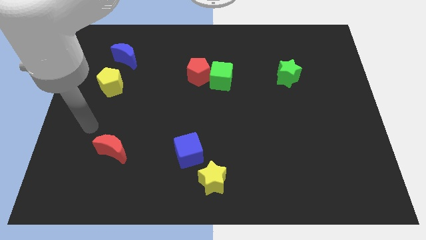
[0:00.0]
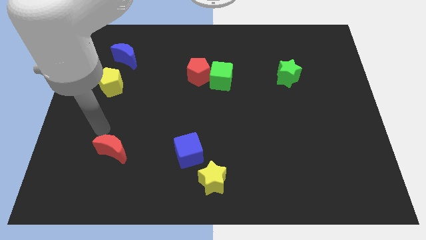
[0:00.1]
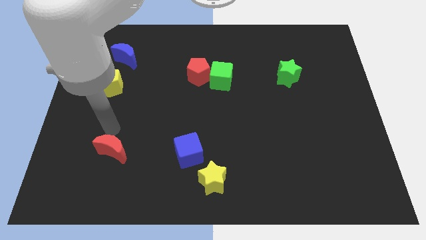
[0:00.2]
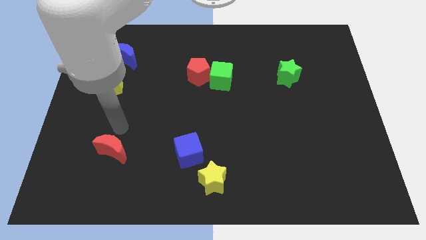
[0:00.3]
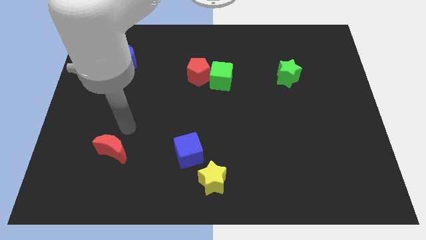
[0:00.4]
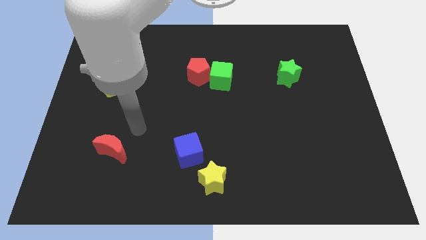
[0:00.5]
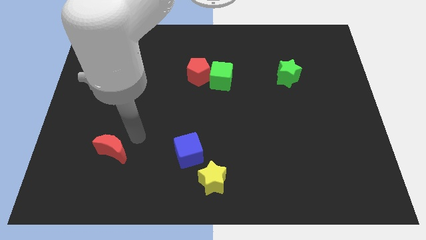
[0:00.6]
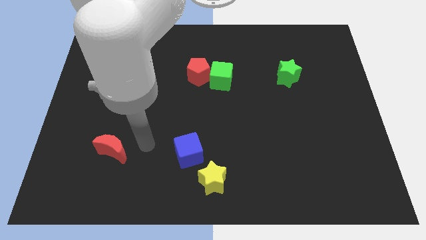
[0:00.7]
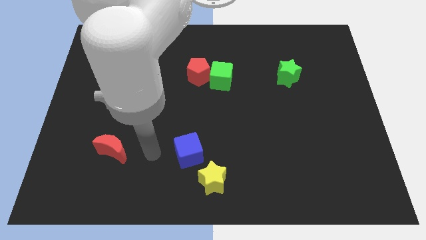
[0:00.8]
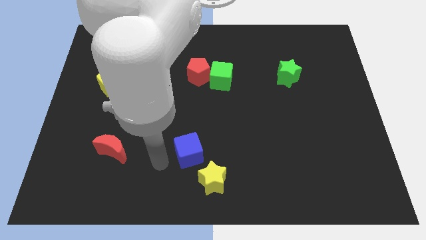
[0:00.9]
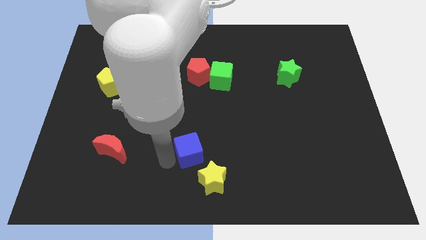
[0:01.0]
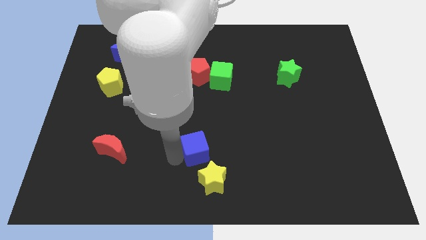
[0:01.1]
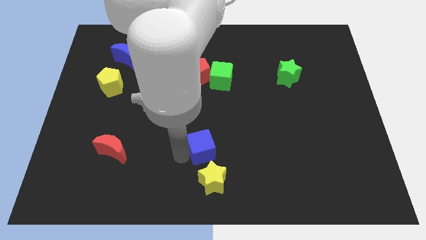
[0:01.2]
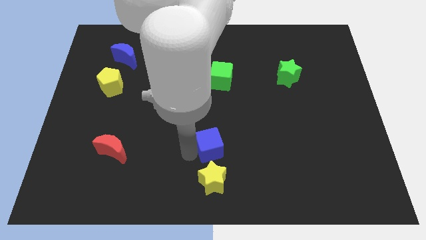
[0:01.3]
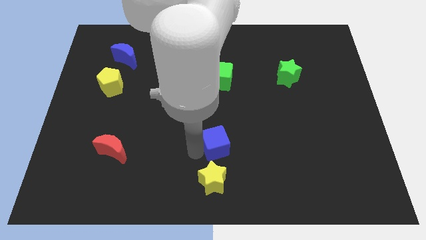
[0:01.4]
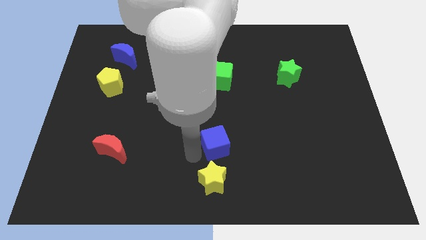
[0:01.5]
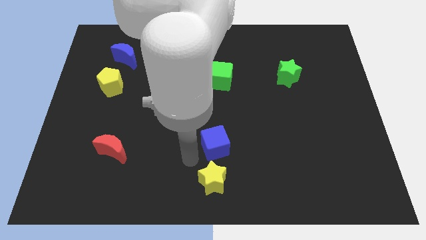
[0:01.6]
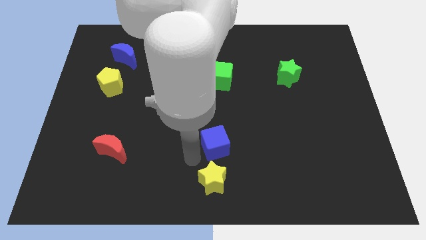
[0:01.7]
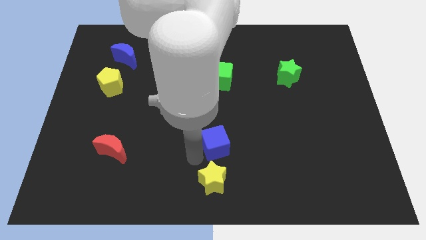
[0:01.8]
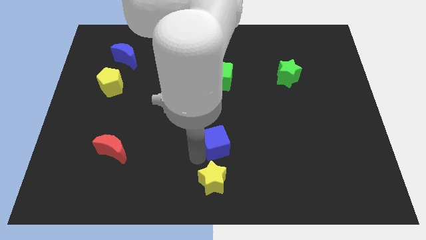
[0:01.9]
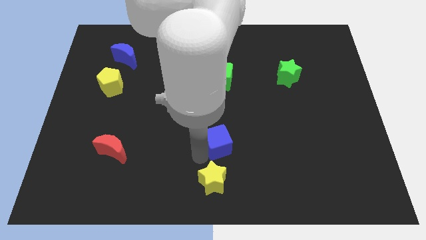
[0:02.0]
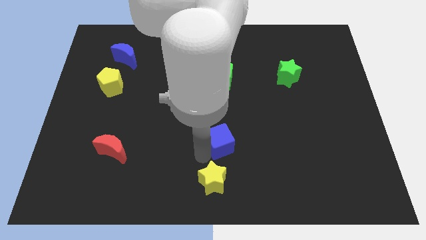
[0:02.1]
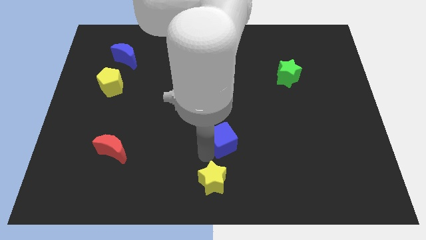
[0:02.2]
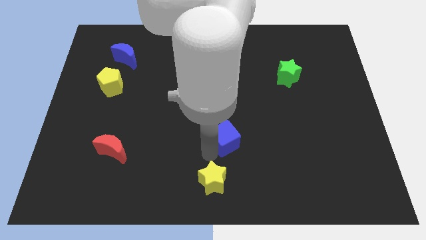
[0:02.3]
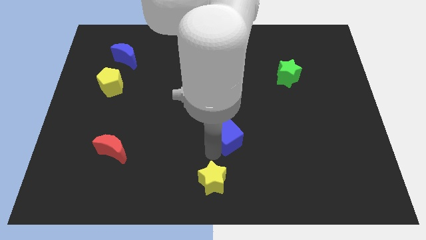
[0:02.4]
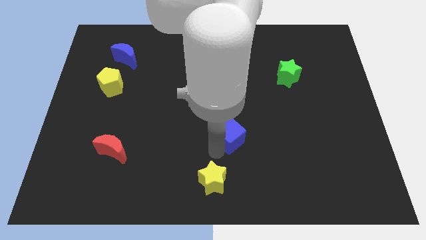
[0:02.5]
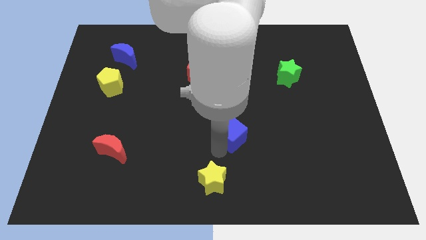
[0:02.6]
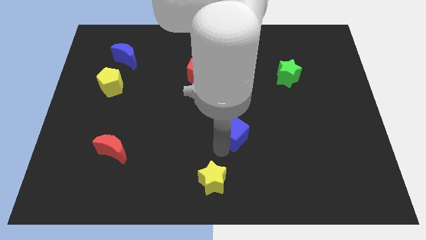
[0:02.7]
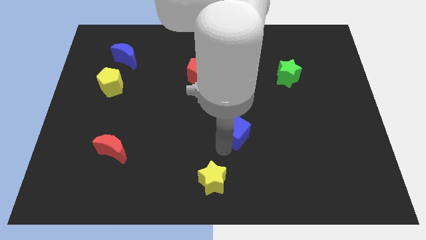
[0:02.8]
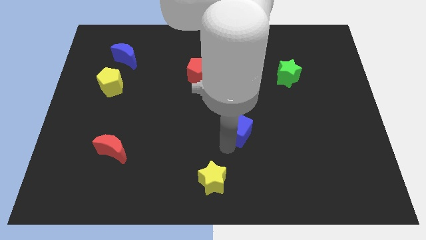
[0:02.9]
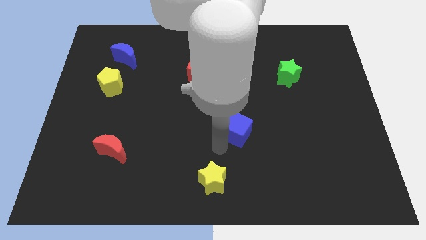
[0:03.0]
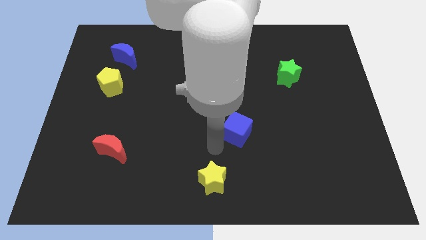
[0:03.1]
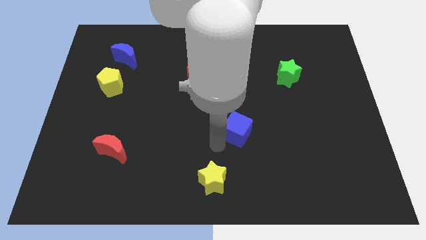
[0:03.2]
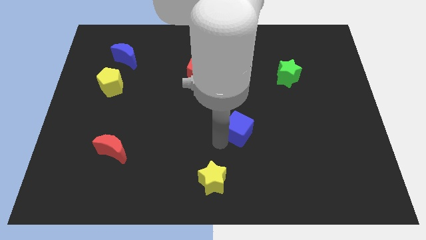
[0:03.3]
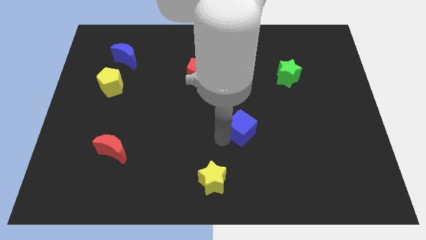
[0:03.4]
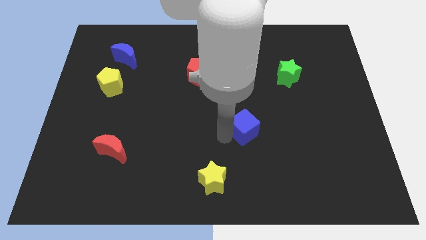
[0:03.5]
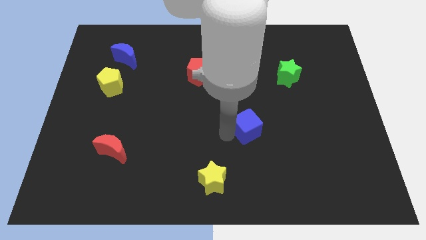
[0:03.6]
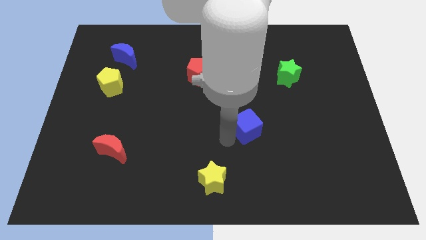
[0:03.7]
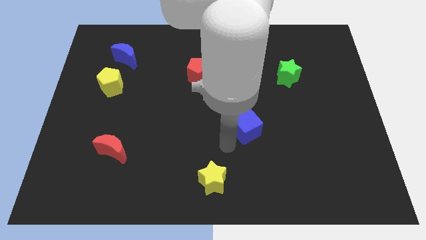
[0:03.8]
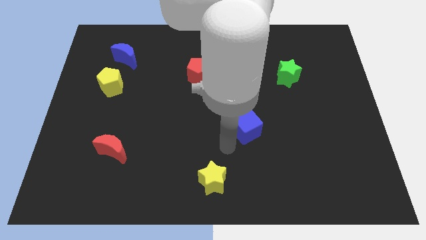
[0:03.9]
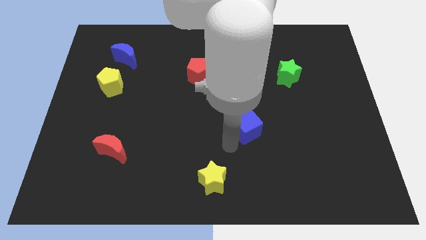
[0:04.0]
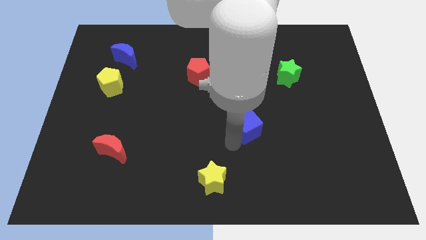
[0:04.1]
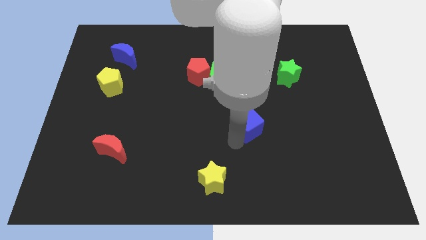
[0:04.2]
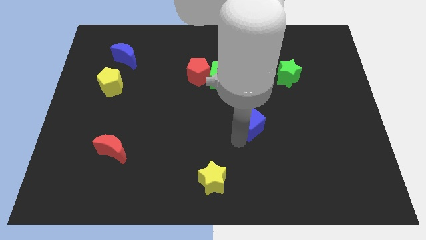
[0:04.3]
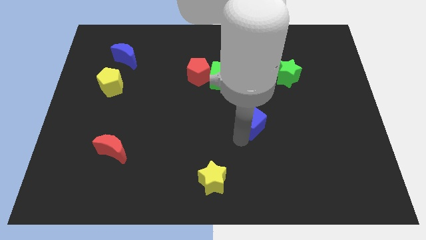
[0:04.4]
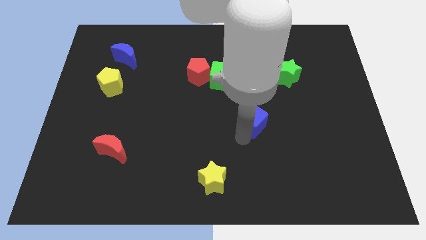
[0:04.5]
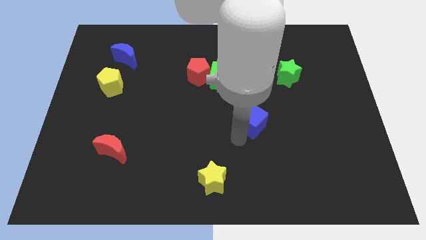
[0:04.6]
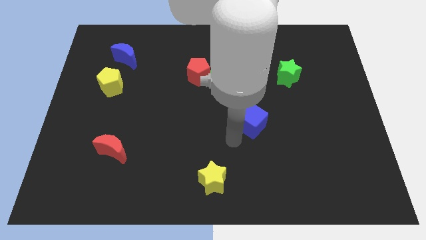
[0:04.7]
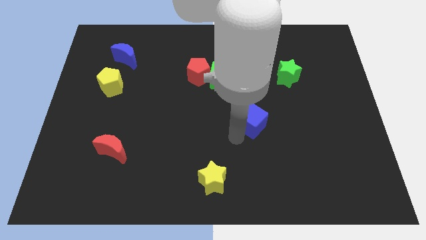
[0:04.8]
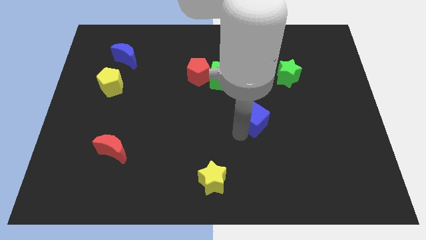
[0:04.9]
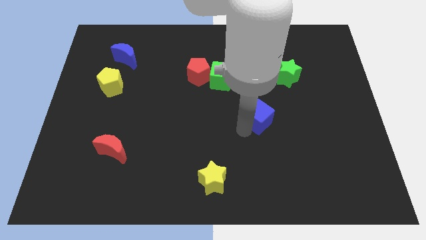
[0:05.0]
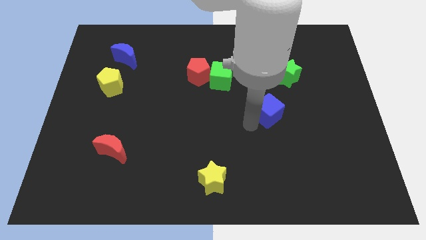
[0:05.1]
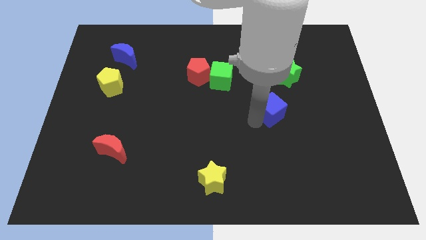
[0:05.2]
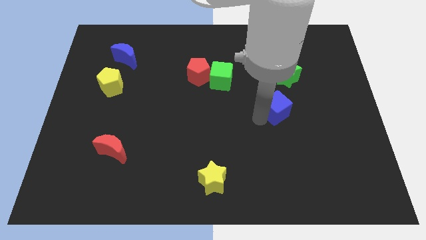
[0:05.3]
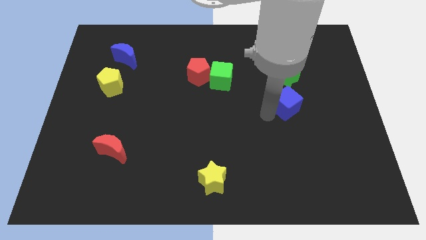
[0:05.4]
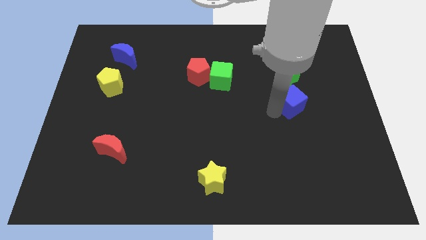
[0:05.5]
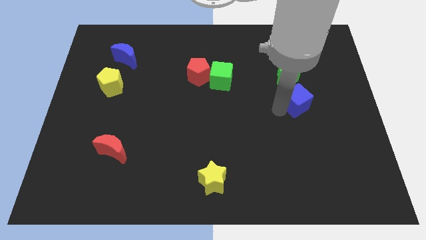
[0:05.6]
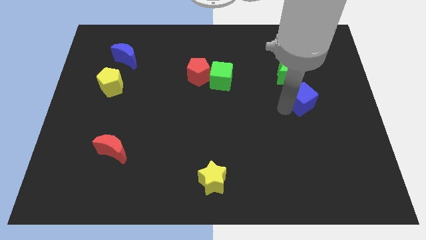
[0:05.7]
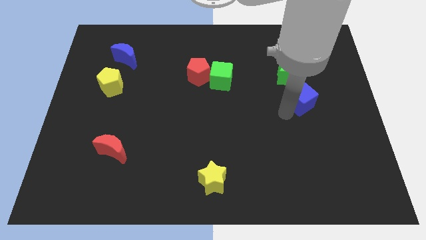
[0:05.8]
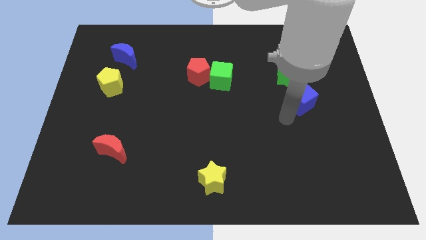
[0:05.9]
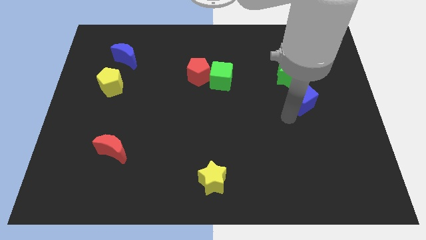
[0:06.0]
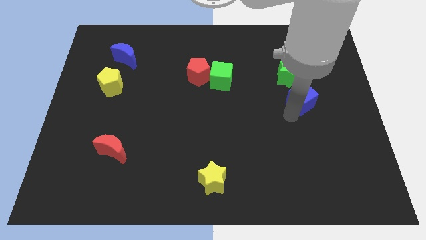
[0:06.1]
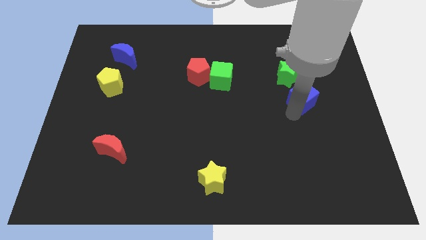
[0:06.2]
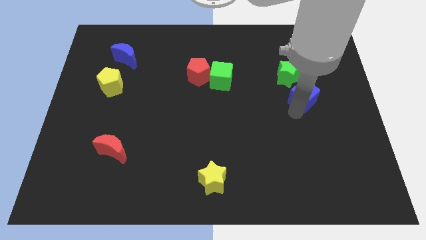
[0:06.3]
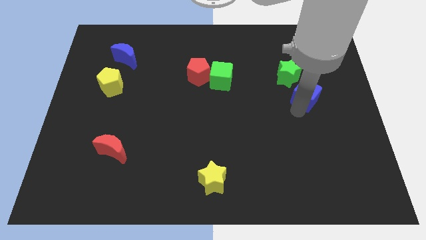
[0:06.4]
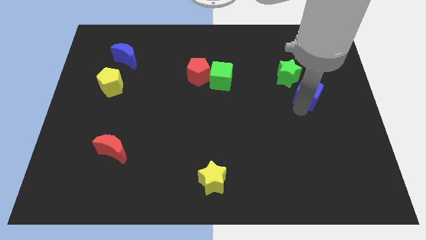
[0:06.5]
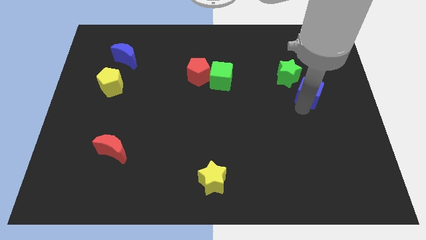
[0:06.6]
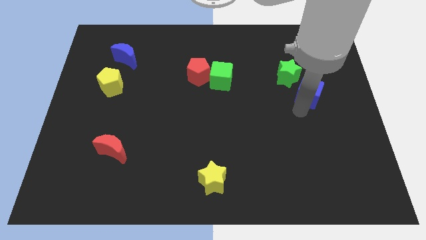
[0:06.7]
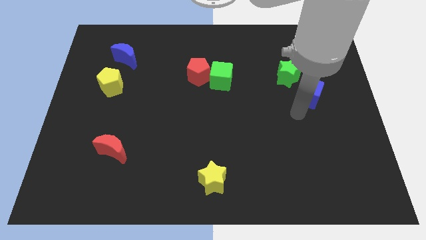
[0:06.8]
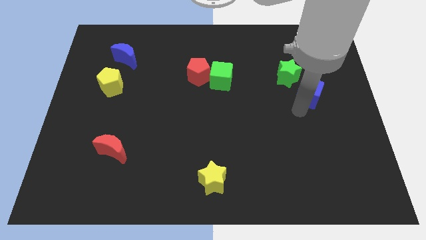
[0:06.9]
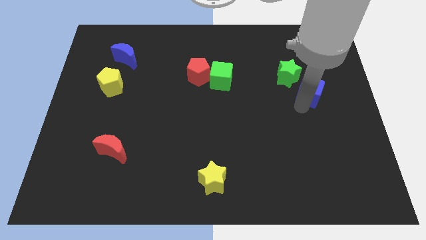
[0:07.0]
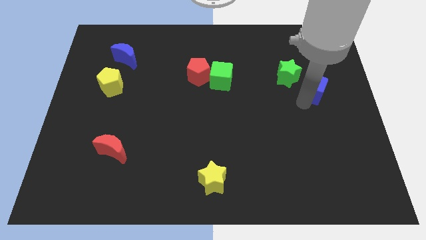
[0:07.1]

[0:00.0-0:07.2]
push the blue cube just right of the green star
